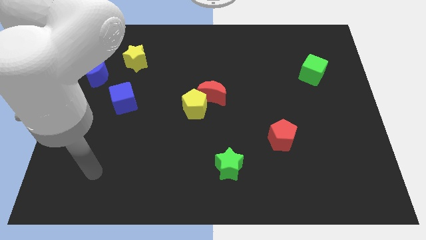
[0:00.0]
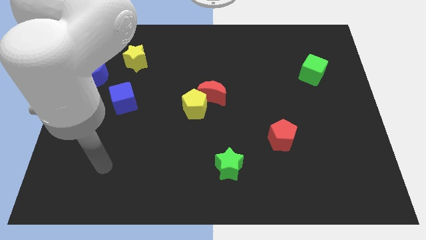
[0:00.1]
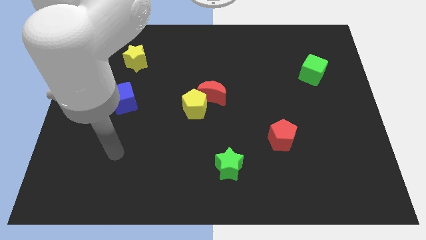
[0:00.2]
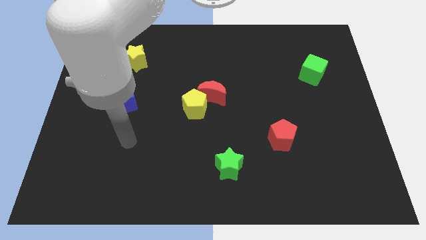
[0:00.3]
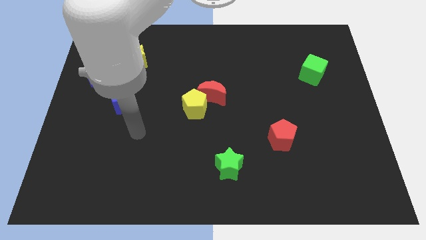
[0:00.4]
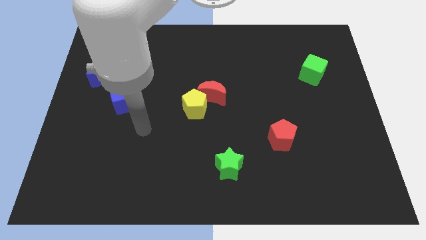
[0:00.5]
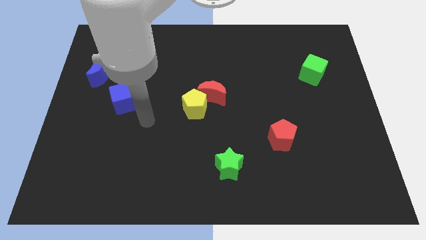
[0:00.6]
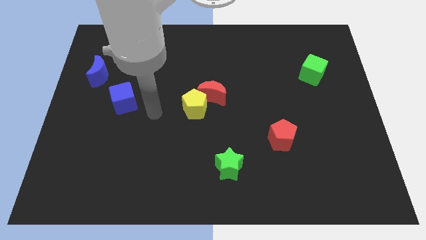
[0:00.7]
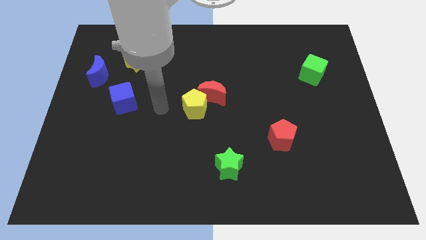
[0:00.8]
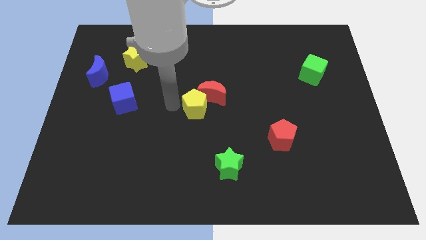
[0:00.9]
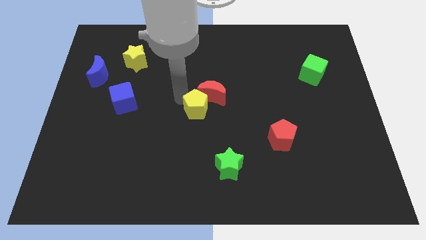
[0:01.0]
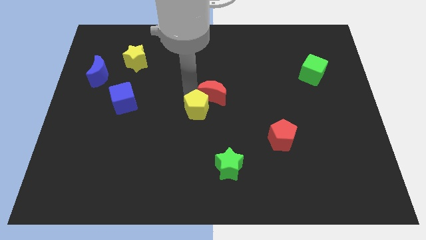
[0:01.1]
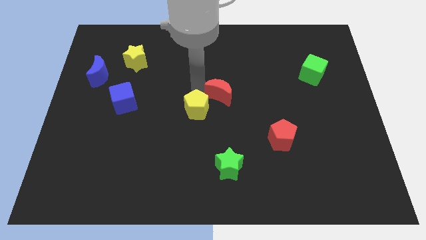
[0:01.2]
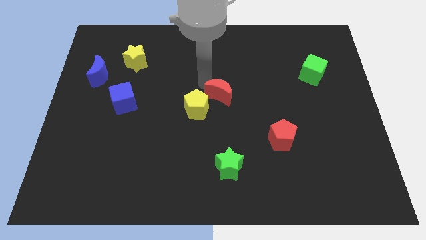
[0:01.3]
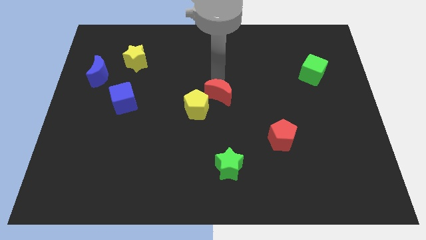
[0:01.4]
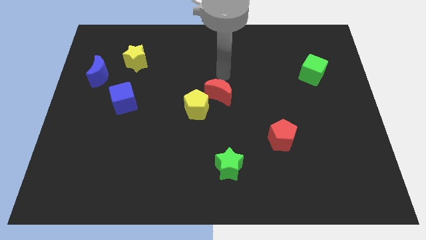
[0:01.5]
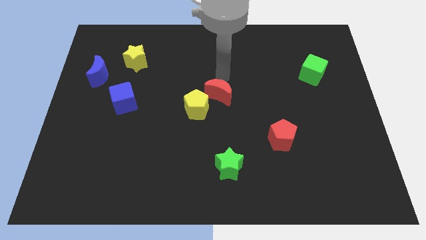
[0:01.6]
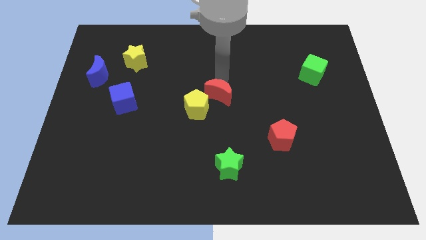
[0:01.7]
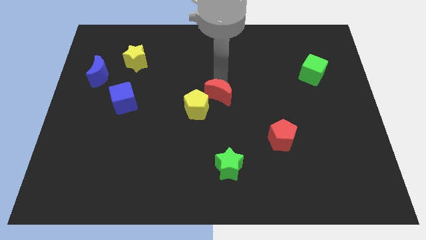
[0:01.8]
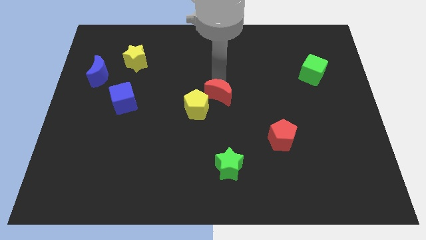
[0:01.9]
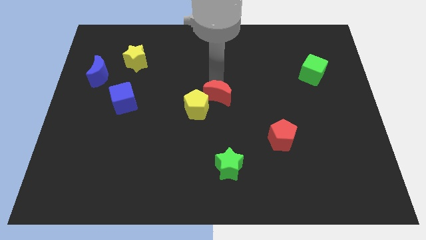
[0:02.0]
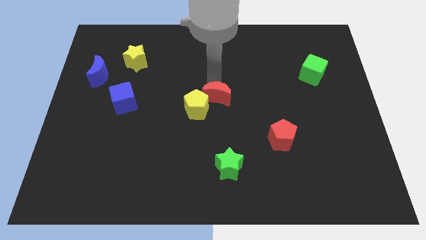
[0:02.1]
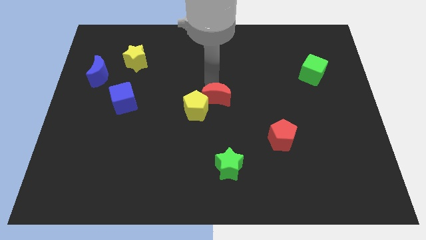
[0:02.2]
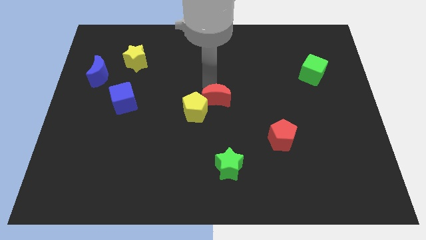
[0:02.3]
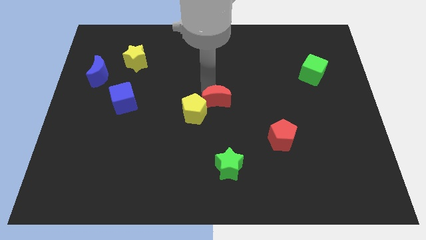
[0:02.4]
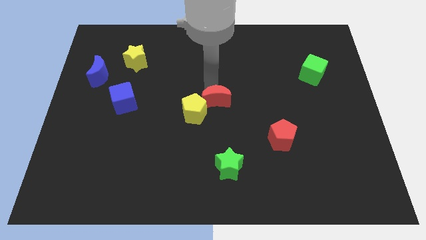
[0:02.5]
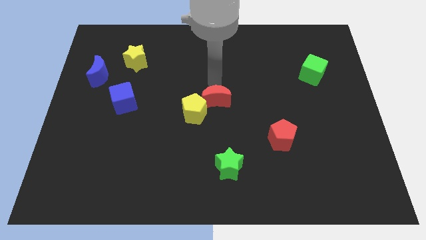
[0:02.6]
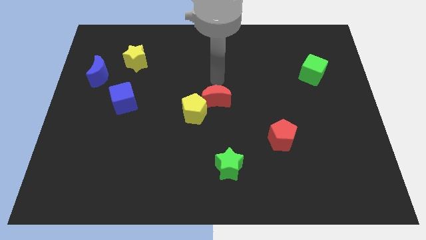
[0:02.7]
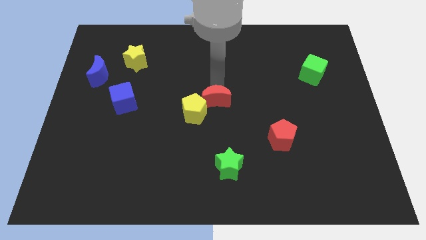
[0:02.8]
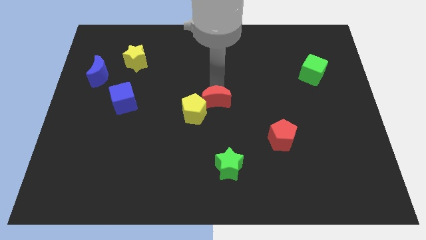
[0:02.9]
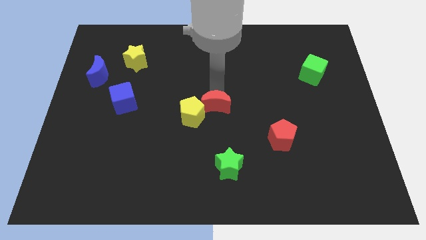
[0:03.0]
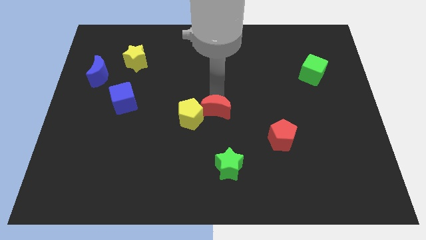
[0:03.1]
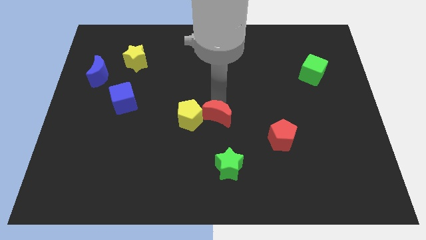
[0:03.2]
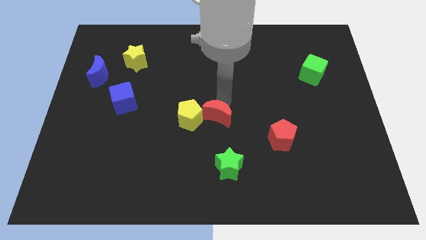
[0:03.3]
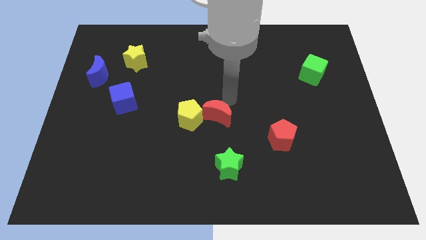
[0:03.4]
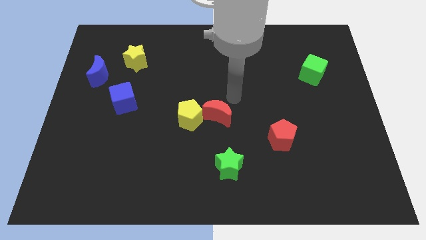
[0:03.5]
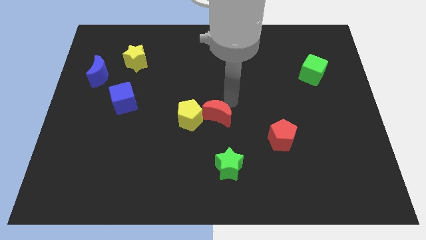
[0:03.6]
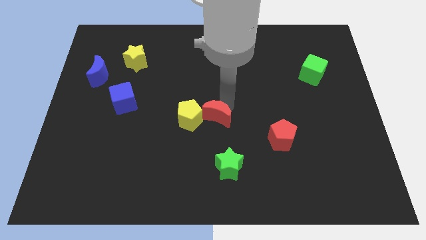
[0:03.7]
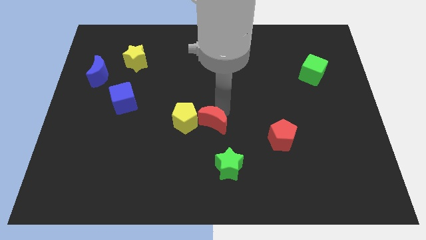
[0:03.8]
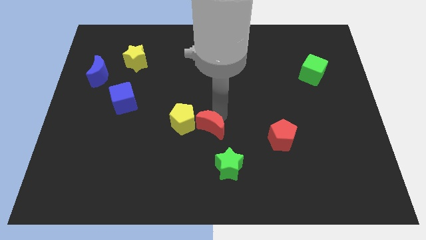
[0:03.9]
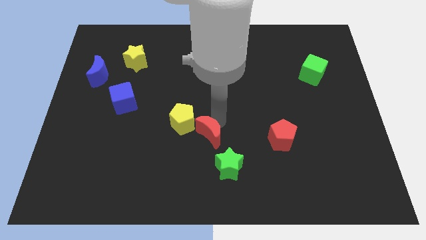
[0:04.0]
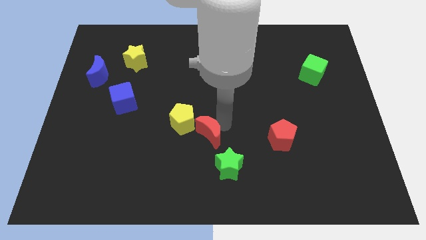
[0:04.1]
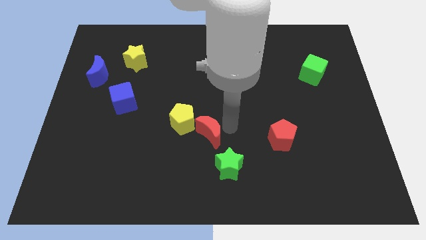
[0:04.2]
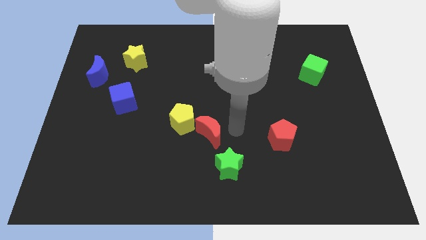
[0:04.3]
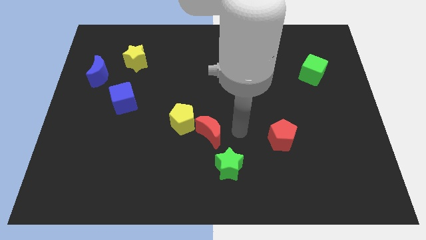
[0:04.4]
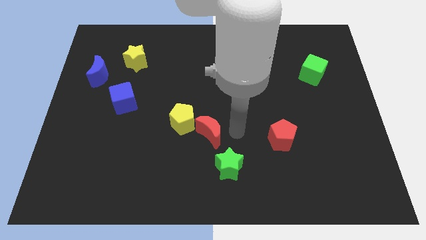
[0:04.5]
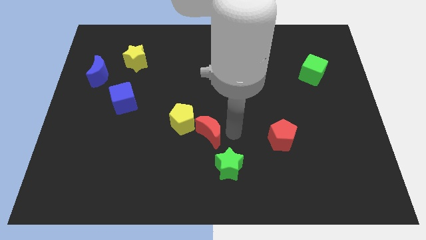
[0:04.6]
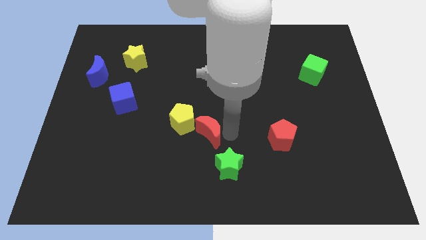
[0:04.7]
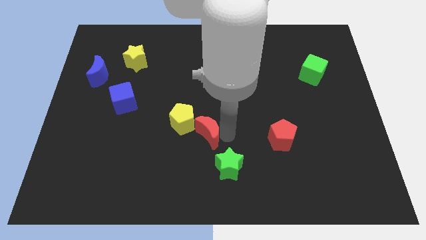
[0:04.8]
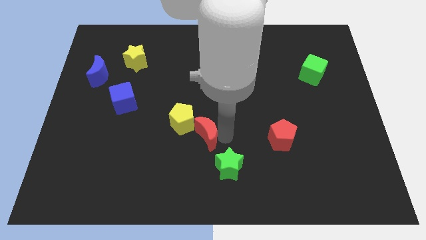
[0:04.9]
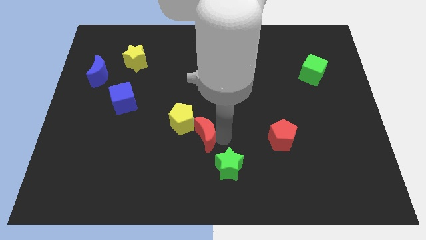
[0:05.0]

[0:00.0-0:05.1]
move the red moon somewhat downwards and then to the left

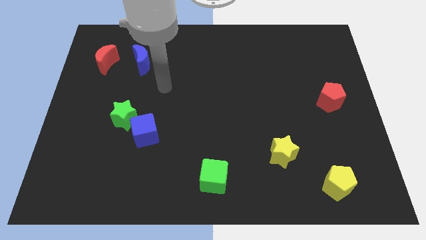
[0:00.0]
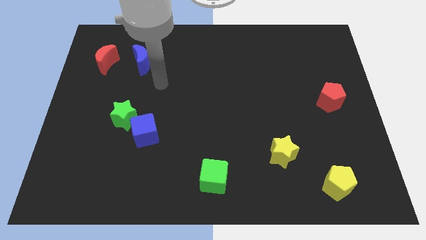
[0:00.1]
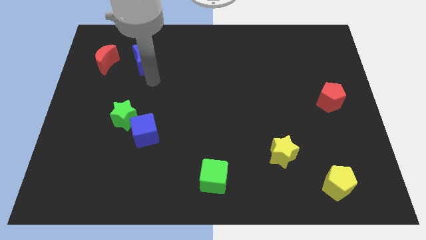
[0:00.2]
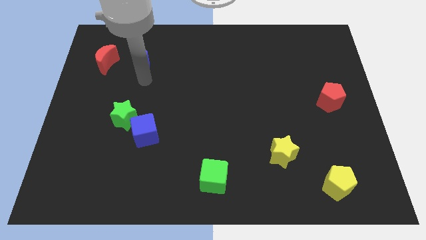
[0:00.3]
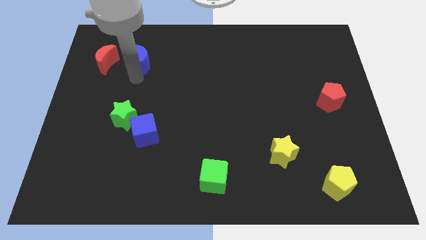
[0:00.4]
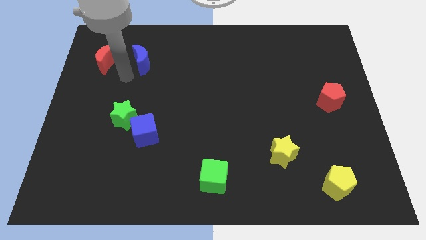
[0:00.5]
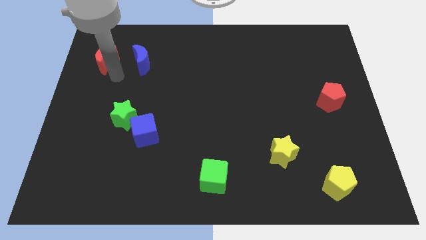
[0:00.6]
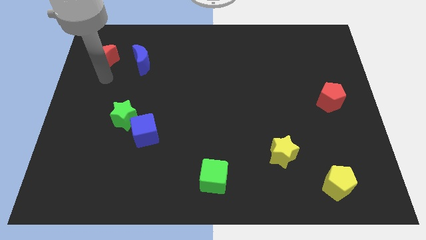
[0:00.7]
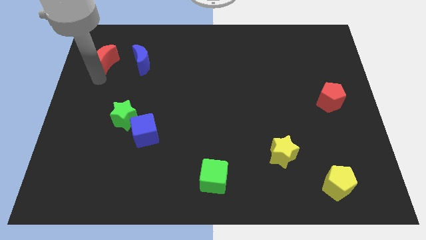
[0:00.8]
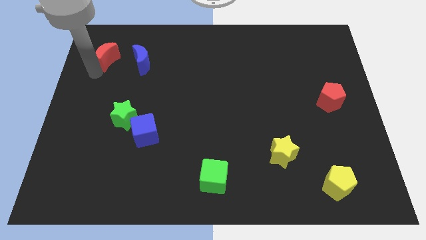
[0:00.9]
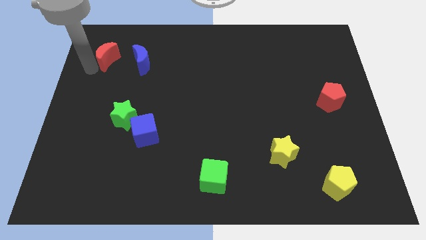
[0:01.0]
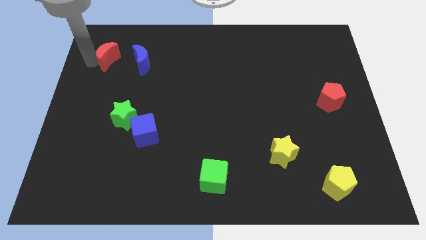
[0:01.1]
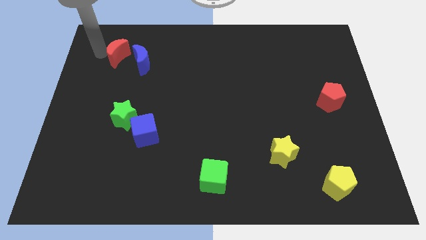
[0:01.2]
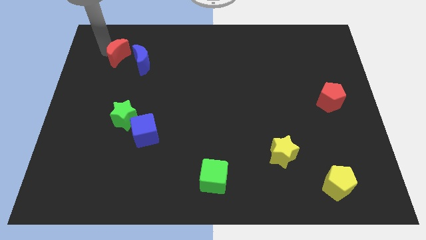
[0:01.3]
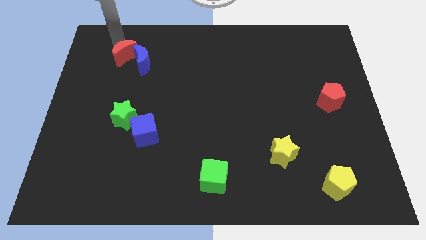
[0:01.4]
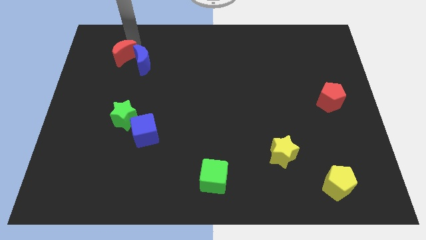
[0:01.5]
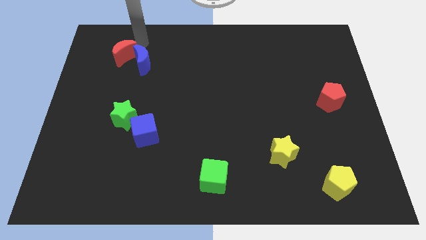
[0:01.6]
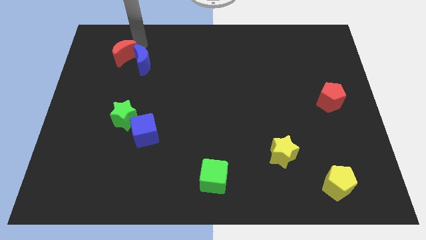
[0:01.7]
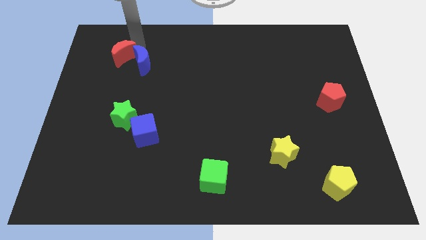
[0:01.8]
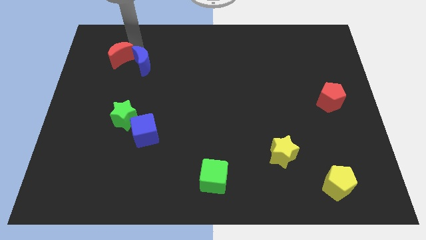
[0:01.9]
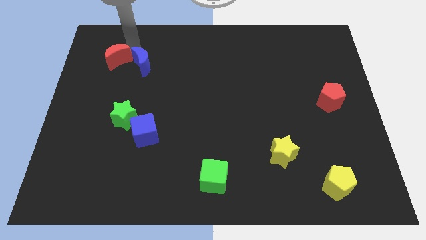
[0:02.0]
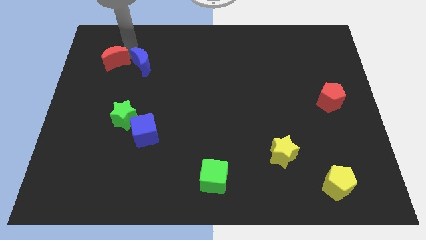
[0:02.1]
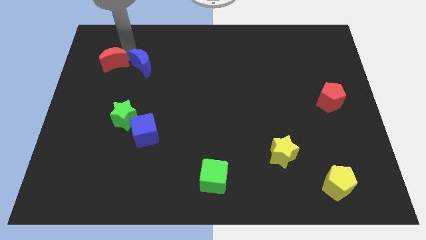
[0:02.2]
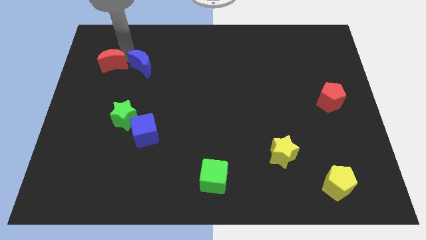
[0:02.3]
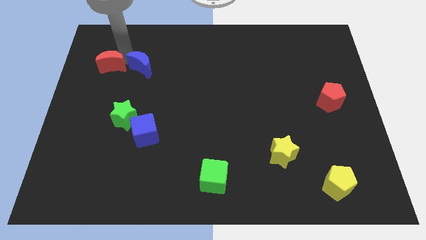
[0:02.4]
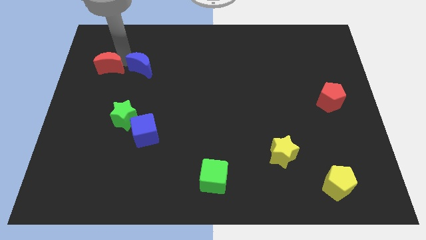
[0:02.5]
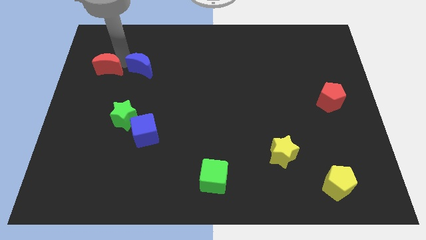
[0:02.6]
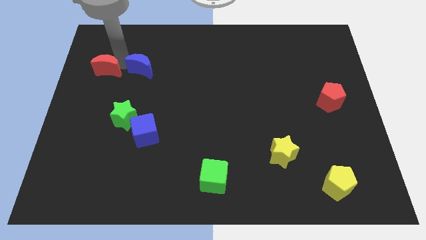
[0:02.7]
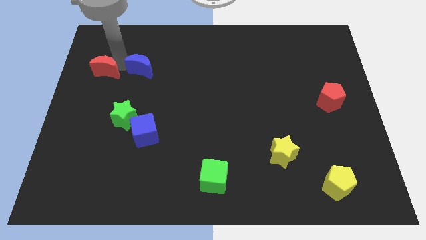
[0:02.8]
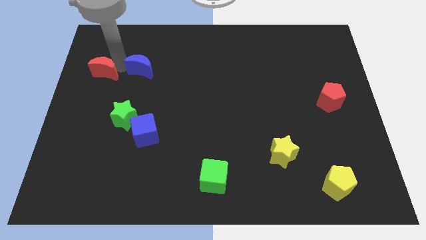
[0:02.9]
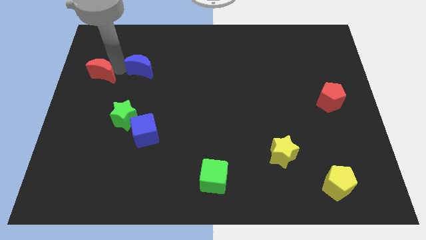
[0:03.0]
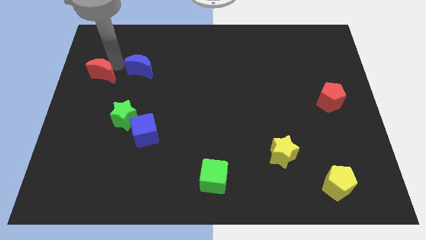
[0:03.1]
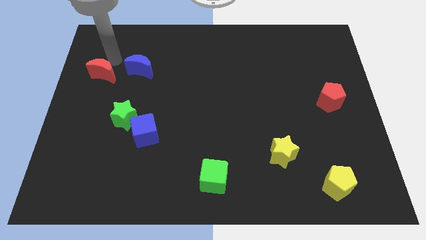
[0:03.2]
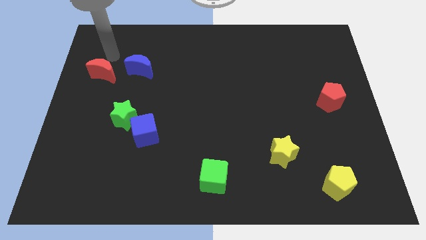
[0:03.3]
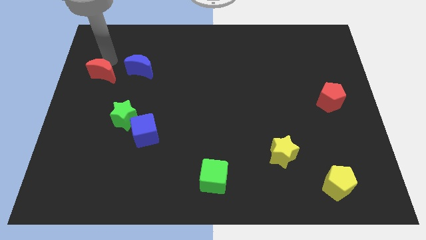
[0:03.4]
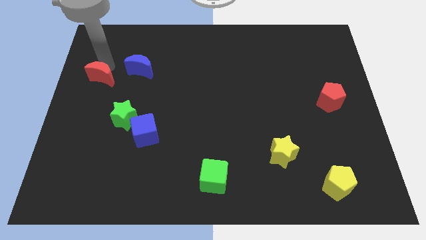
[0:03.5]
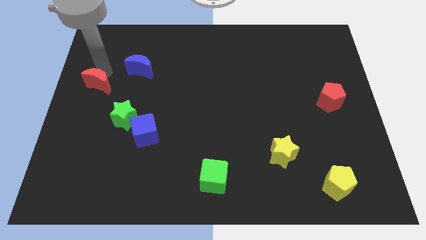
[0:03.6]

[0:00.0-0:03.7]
push the red moon slightly down
